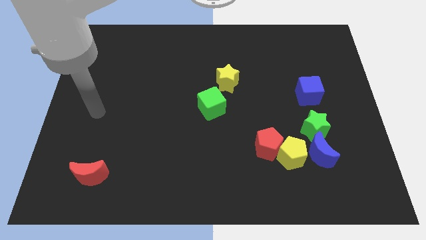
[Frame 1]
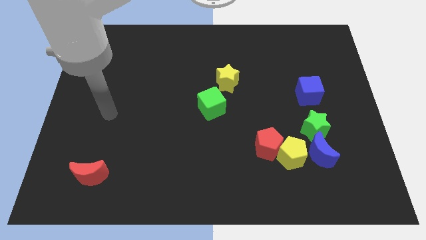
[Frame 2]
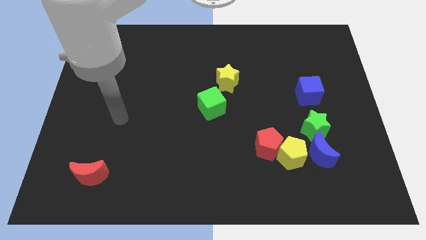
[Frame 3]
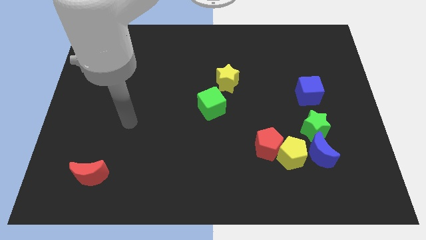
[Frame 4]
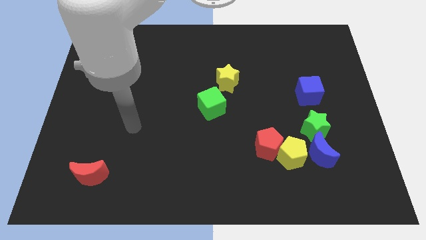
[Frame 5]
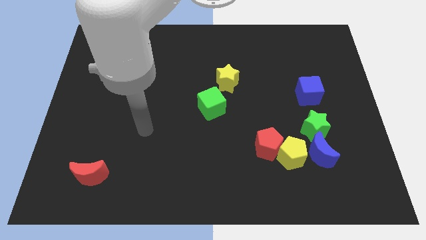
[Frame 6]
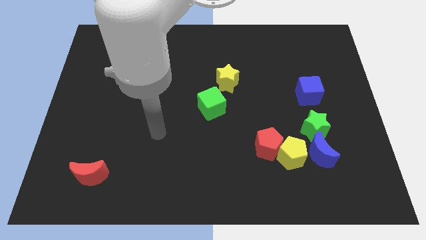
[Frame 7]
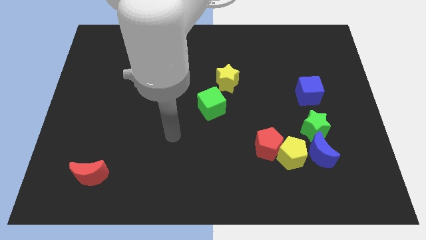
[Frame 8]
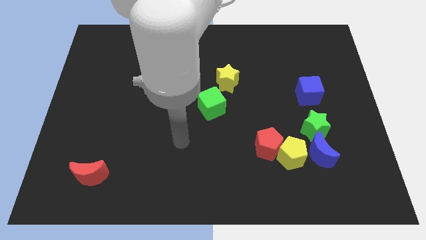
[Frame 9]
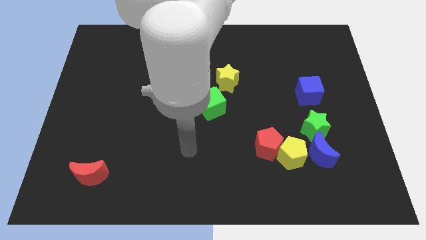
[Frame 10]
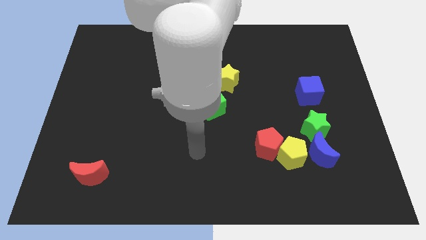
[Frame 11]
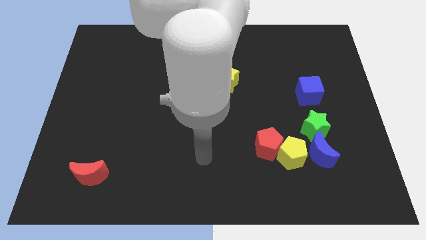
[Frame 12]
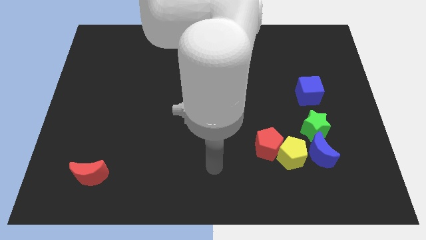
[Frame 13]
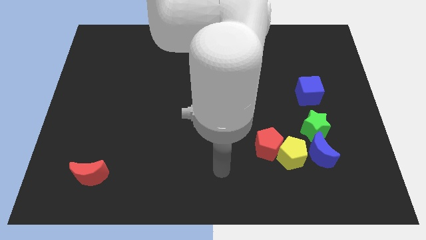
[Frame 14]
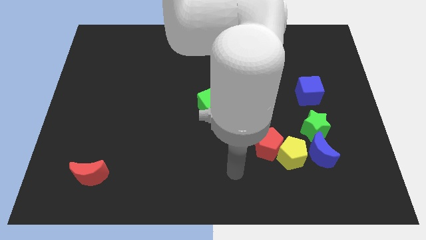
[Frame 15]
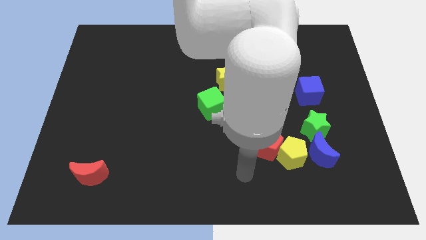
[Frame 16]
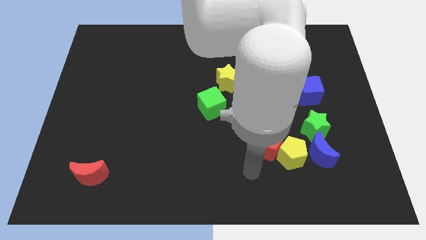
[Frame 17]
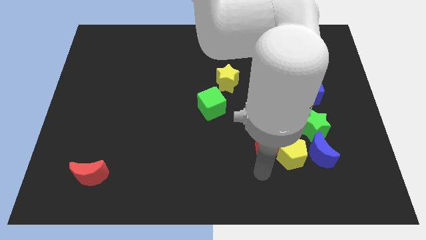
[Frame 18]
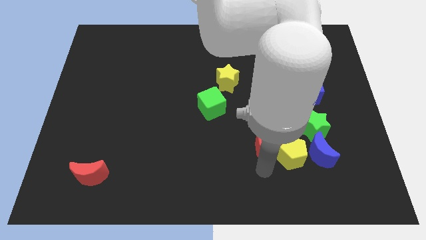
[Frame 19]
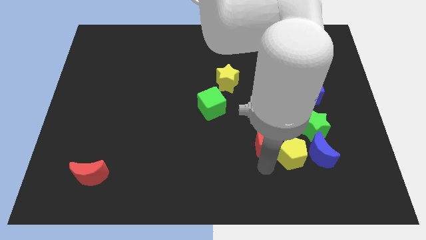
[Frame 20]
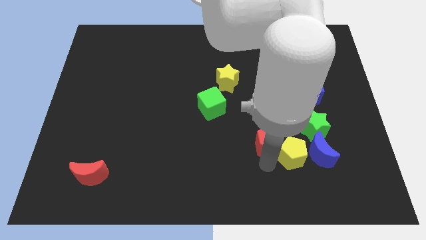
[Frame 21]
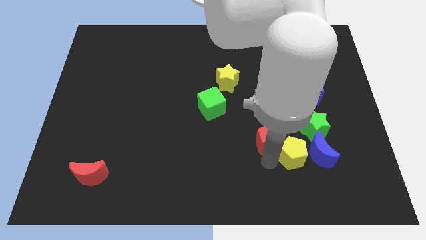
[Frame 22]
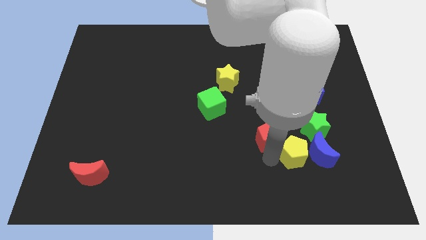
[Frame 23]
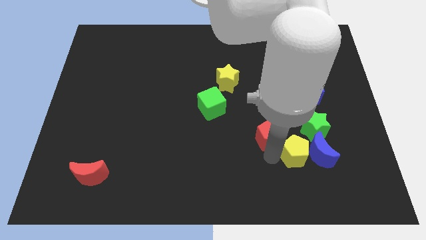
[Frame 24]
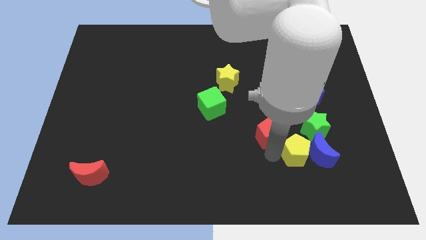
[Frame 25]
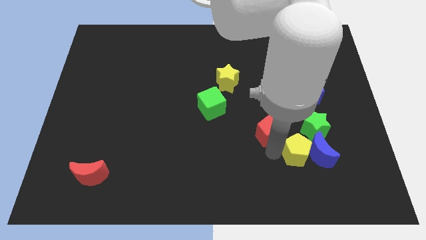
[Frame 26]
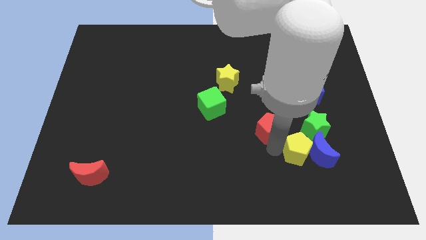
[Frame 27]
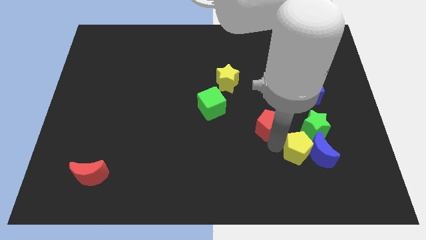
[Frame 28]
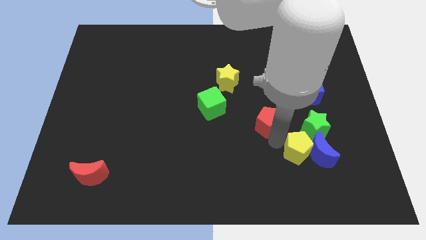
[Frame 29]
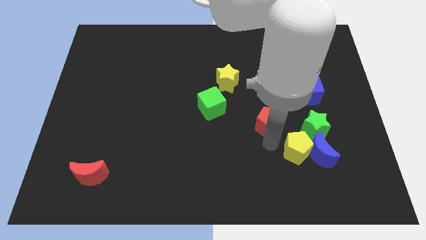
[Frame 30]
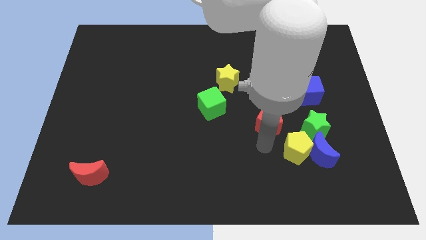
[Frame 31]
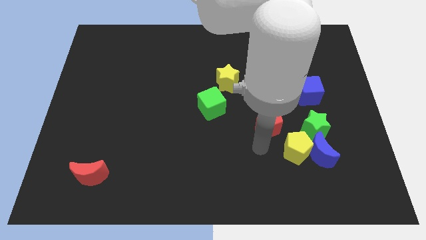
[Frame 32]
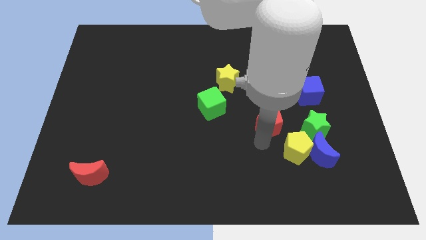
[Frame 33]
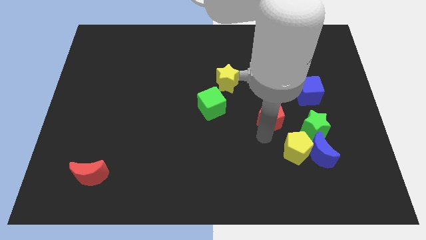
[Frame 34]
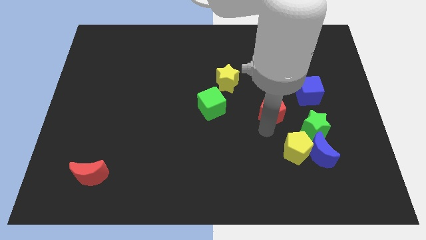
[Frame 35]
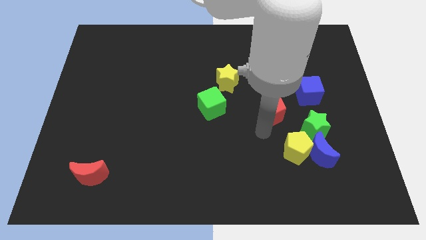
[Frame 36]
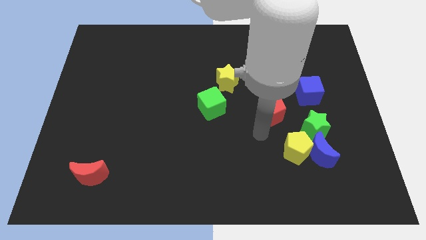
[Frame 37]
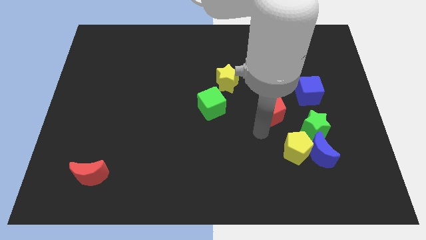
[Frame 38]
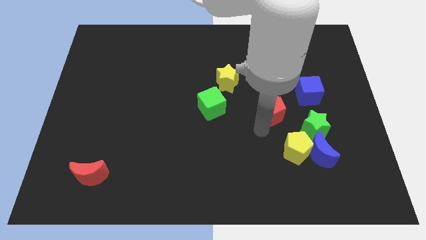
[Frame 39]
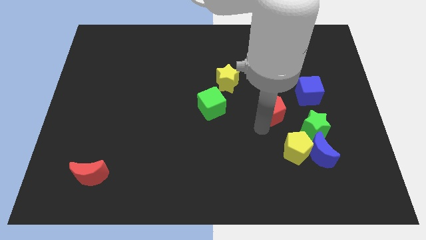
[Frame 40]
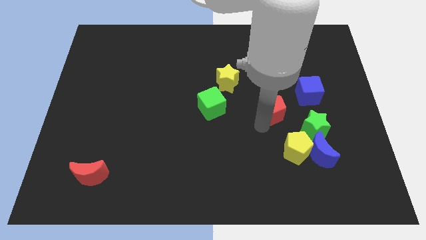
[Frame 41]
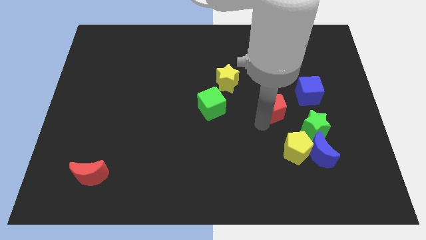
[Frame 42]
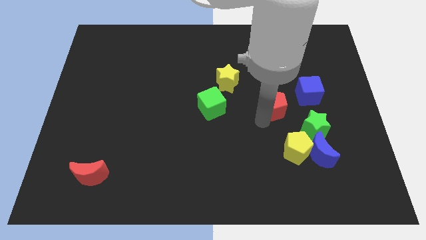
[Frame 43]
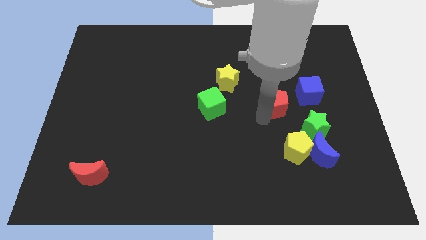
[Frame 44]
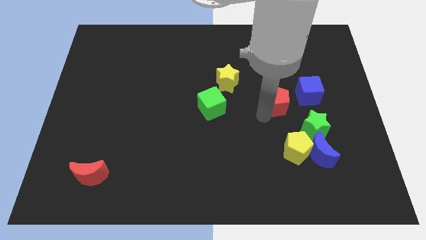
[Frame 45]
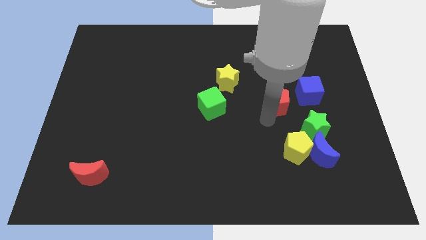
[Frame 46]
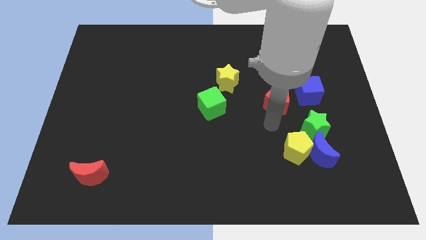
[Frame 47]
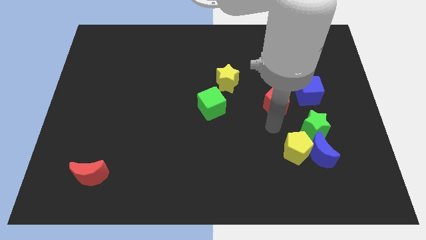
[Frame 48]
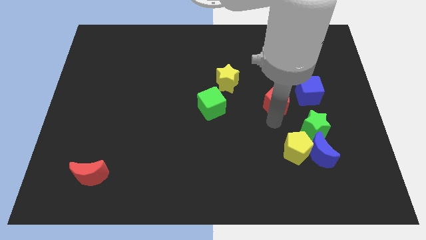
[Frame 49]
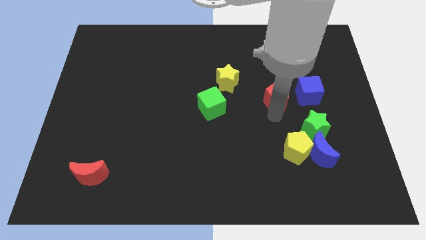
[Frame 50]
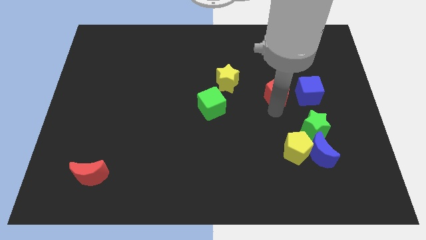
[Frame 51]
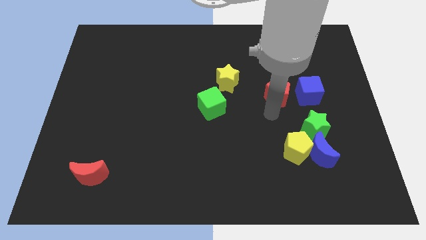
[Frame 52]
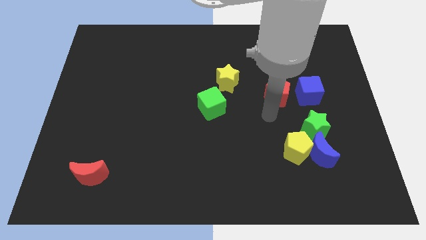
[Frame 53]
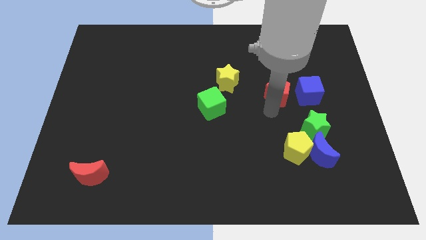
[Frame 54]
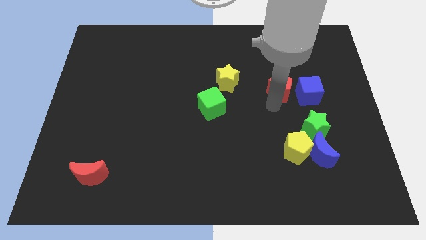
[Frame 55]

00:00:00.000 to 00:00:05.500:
push the red pentagon to the top left side of the blue cube

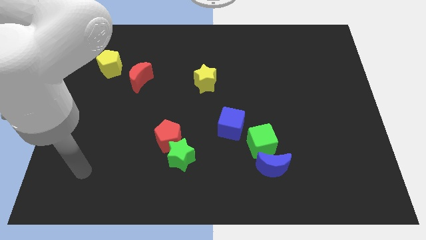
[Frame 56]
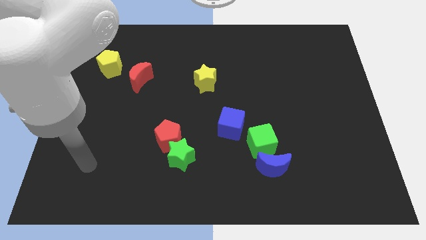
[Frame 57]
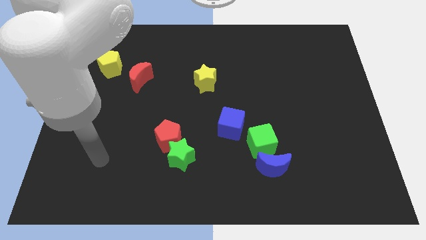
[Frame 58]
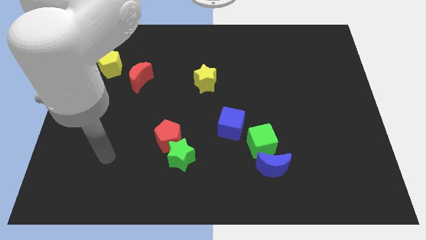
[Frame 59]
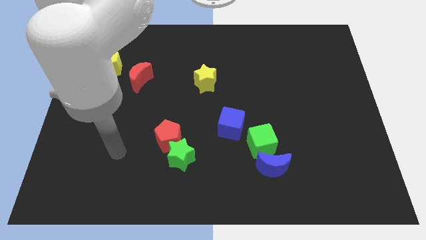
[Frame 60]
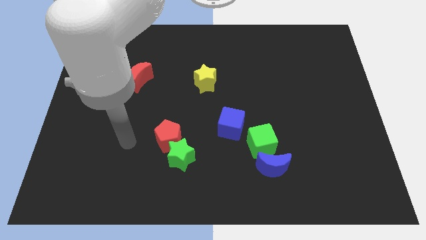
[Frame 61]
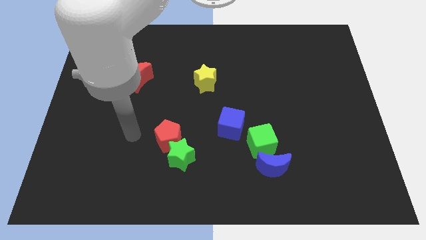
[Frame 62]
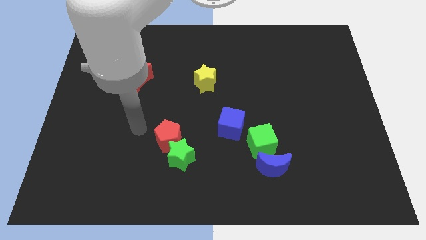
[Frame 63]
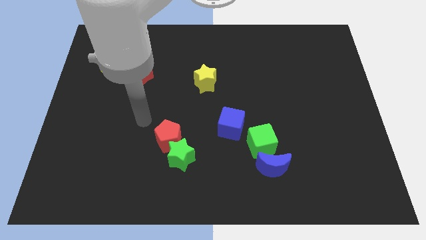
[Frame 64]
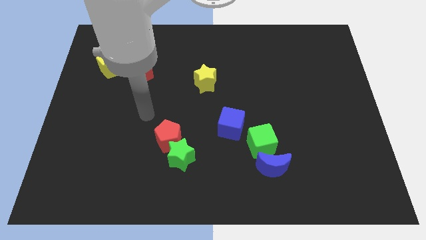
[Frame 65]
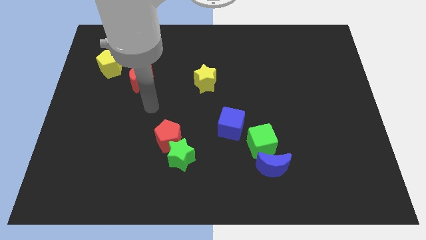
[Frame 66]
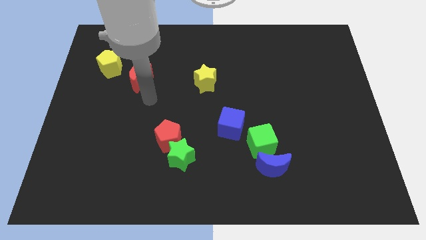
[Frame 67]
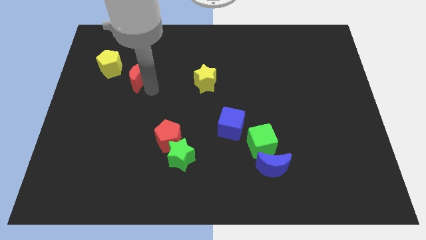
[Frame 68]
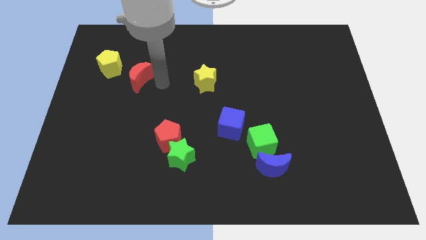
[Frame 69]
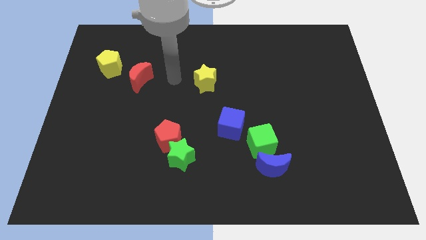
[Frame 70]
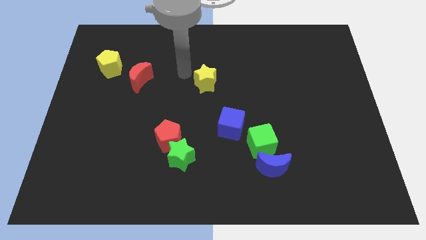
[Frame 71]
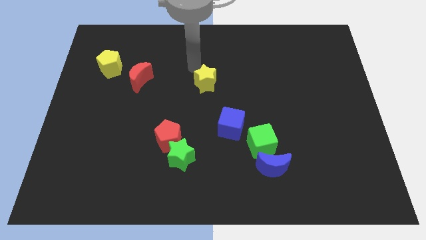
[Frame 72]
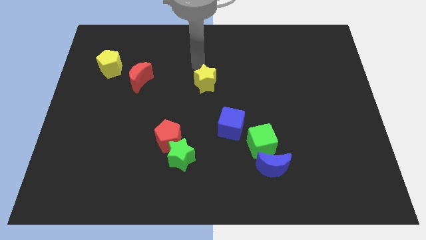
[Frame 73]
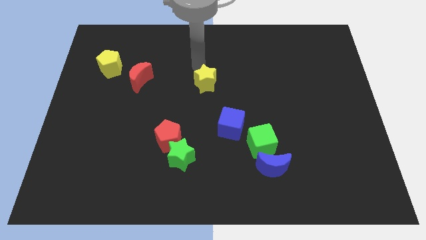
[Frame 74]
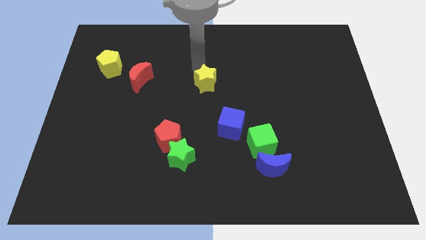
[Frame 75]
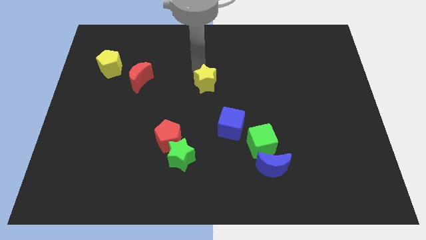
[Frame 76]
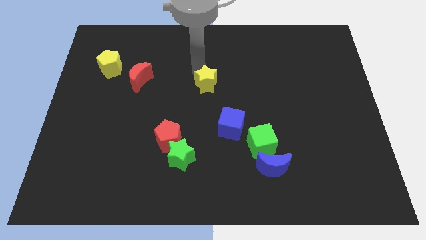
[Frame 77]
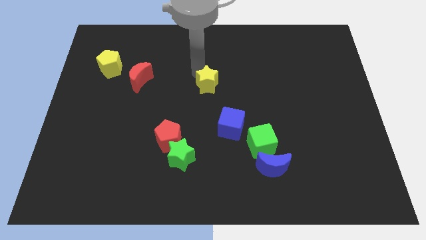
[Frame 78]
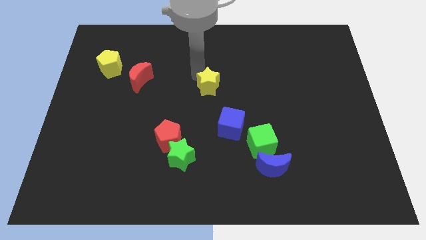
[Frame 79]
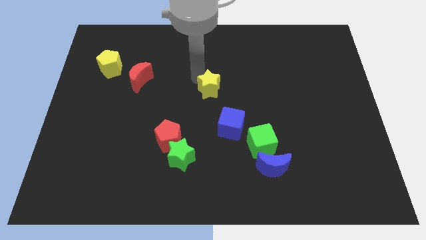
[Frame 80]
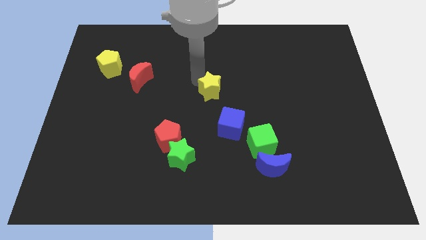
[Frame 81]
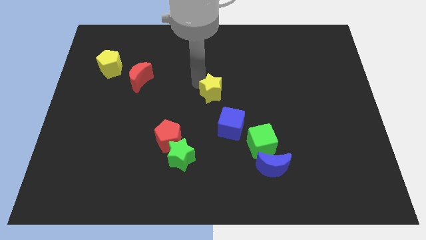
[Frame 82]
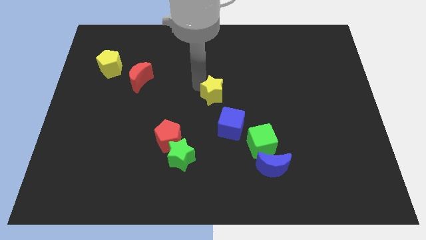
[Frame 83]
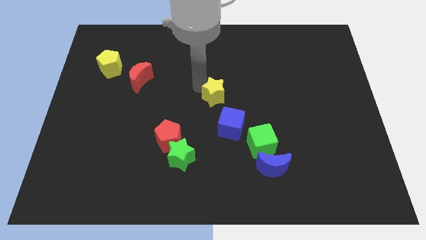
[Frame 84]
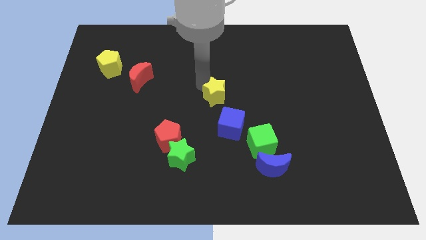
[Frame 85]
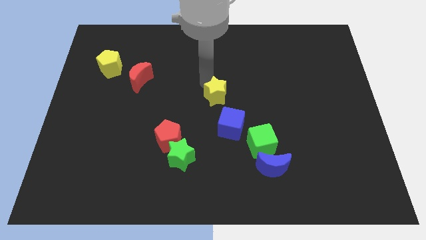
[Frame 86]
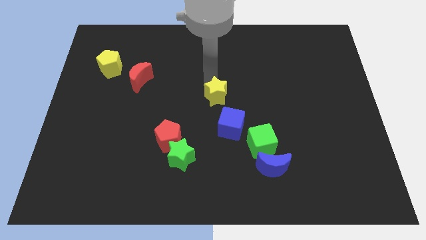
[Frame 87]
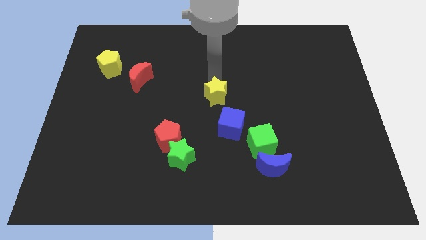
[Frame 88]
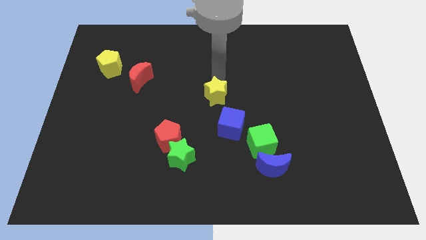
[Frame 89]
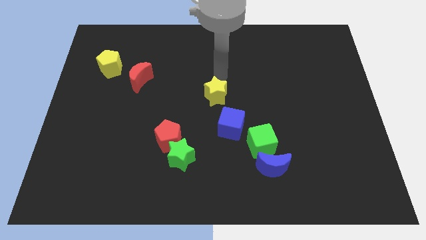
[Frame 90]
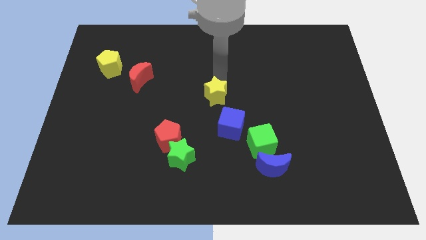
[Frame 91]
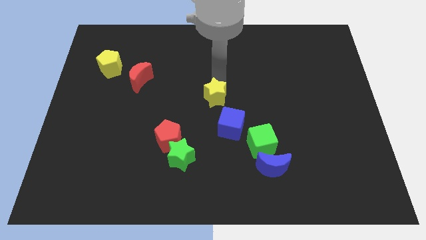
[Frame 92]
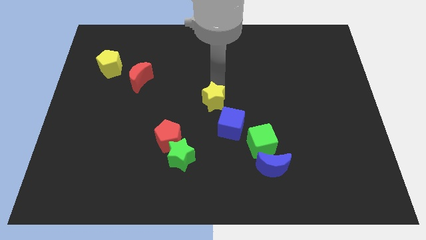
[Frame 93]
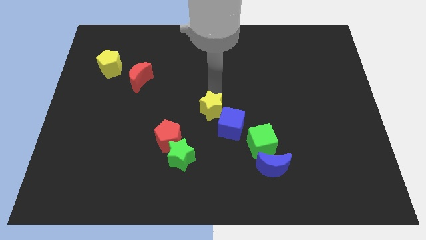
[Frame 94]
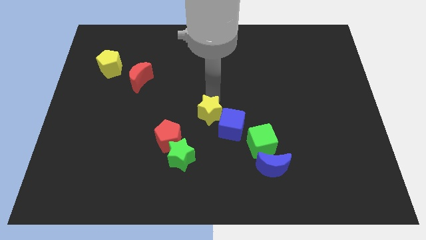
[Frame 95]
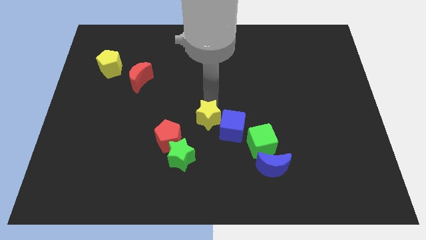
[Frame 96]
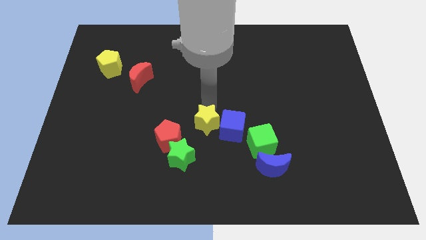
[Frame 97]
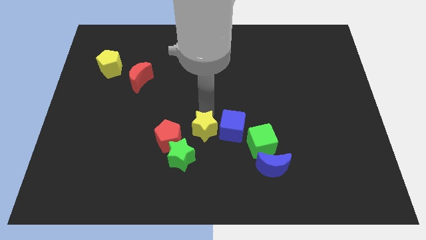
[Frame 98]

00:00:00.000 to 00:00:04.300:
move the yellow star to the left of the green cube
